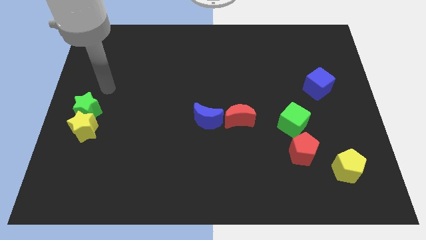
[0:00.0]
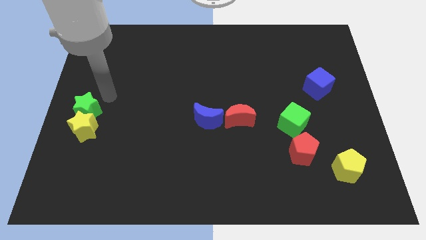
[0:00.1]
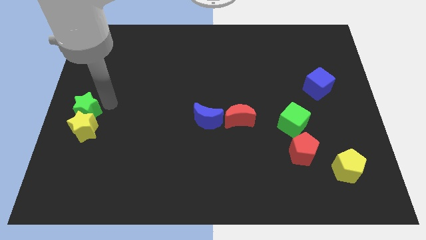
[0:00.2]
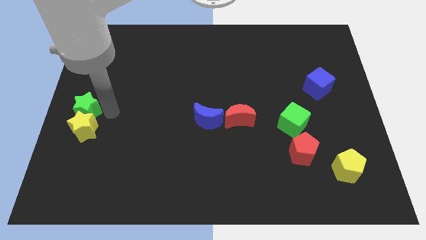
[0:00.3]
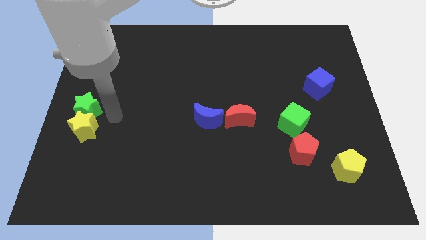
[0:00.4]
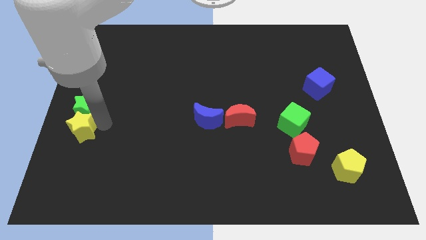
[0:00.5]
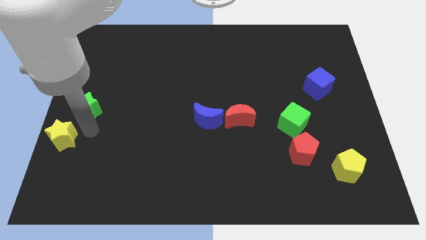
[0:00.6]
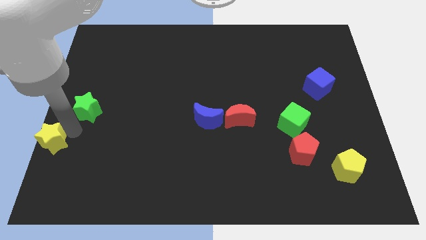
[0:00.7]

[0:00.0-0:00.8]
pull the green star apart from the yellow star

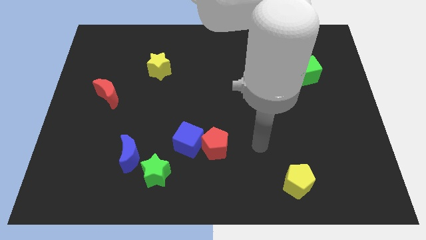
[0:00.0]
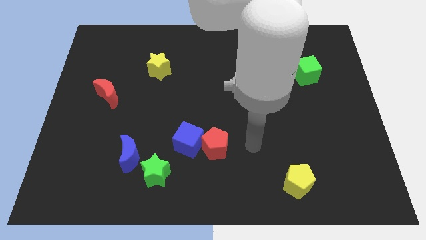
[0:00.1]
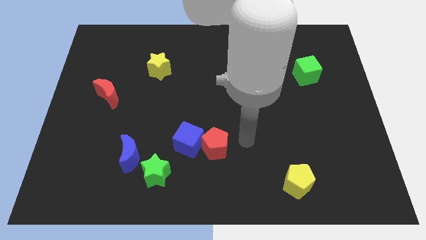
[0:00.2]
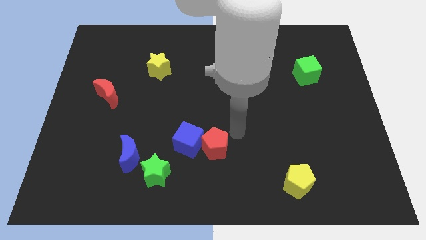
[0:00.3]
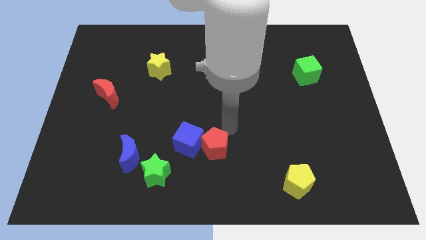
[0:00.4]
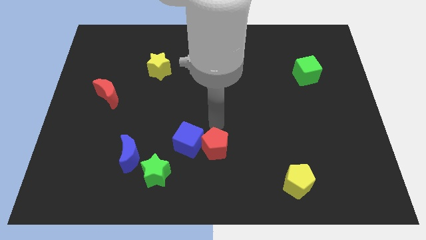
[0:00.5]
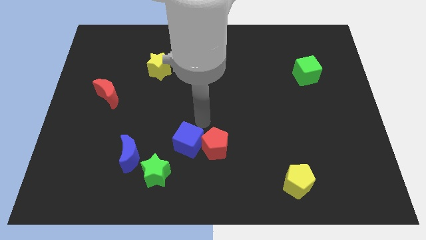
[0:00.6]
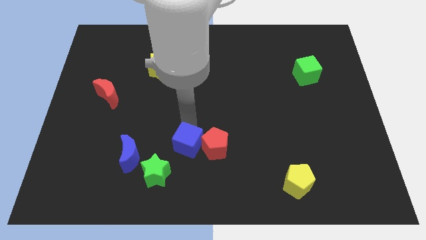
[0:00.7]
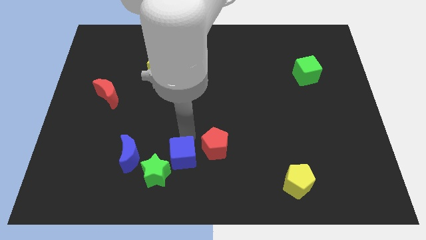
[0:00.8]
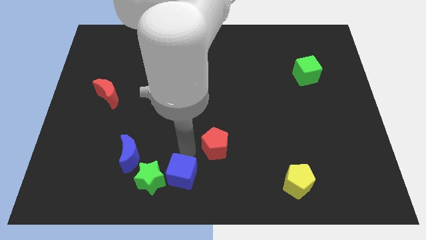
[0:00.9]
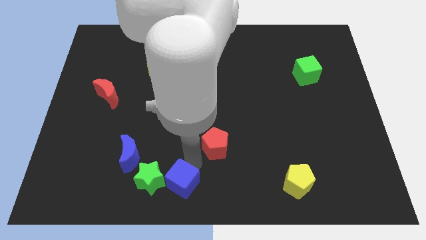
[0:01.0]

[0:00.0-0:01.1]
pull the red pentagon apart from the blue cube

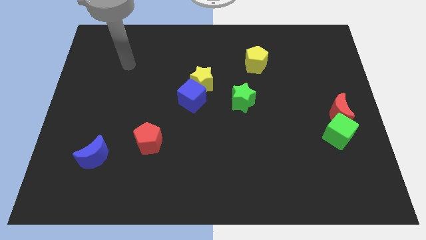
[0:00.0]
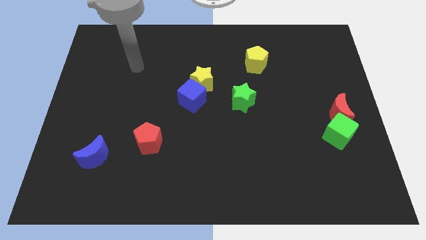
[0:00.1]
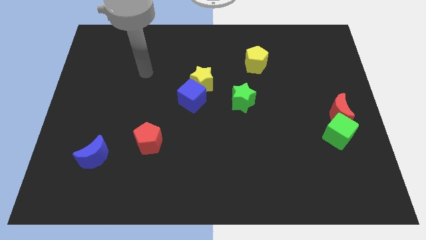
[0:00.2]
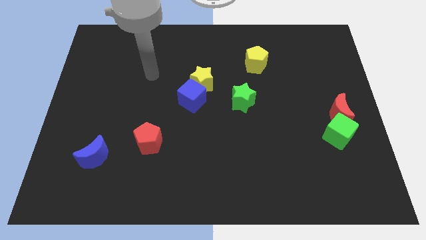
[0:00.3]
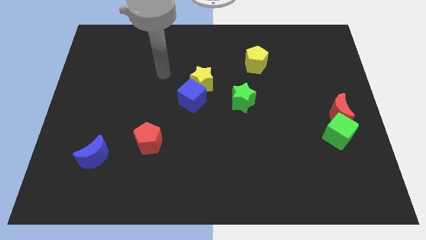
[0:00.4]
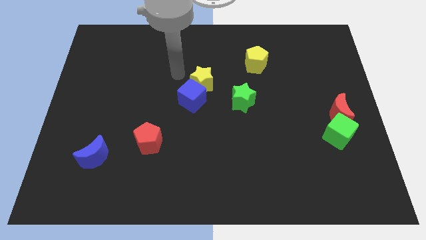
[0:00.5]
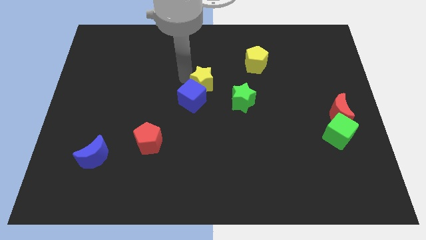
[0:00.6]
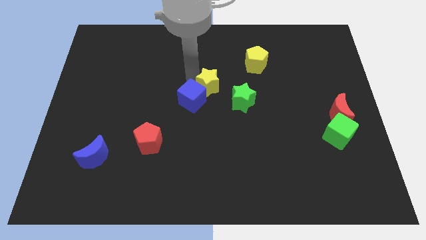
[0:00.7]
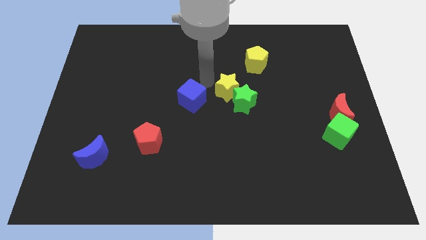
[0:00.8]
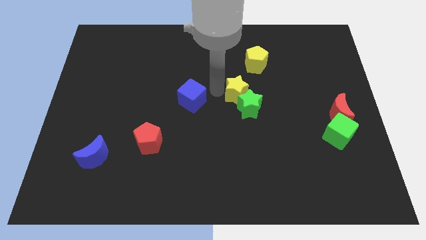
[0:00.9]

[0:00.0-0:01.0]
pull the blue cube apart from the yellow star

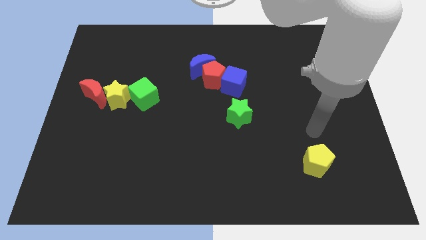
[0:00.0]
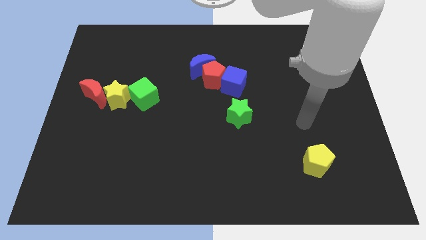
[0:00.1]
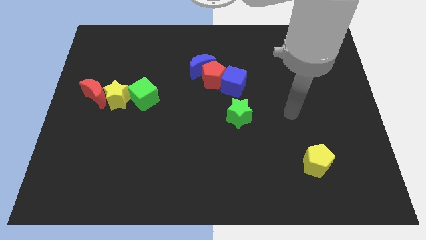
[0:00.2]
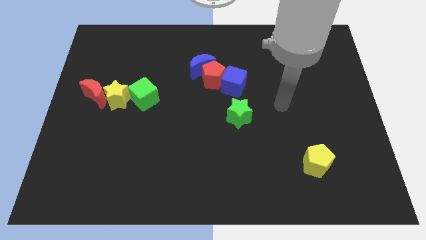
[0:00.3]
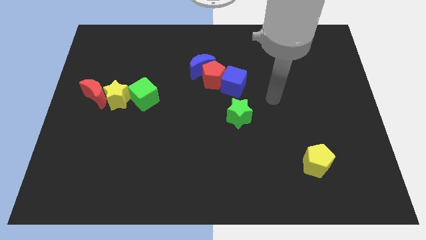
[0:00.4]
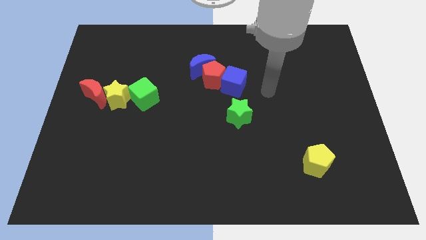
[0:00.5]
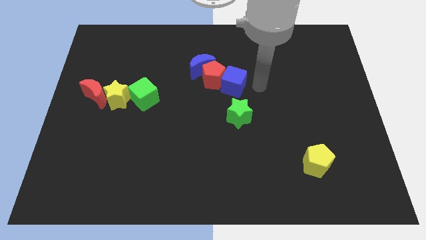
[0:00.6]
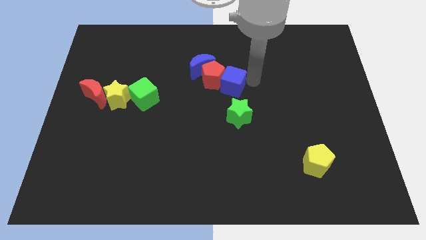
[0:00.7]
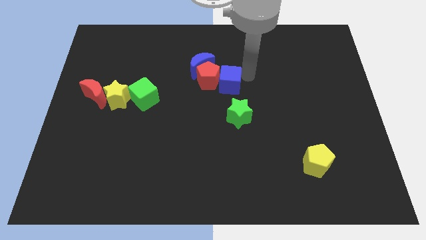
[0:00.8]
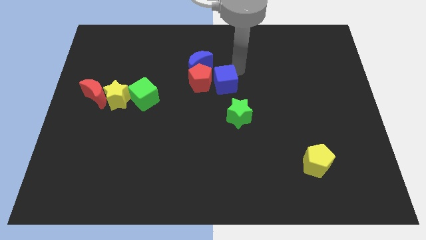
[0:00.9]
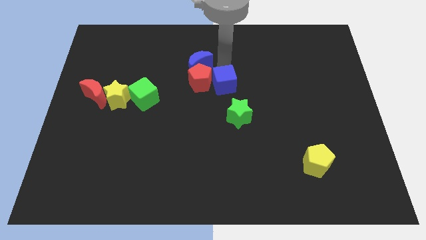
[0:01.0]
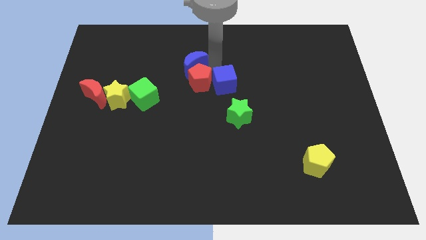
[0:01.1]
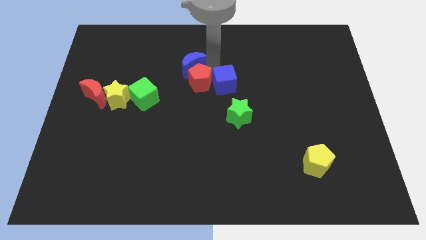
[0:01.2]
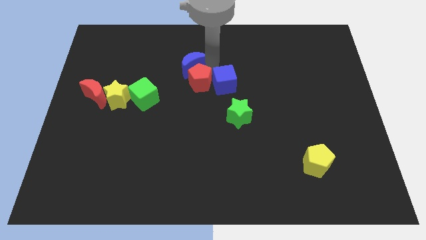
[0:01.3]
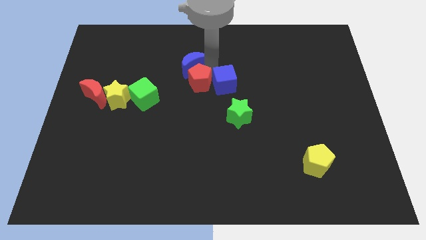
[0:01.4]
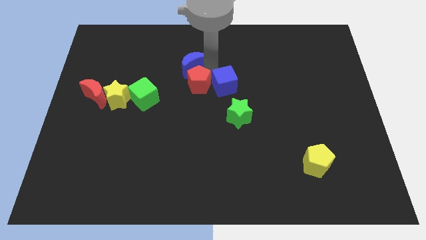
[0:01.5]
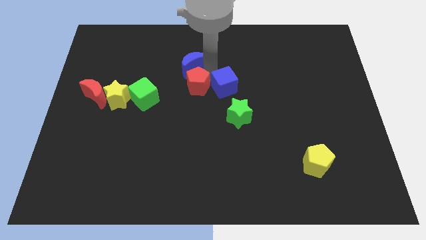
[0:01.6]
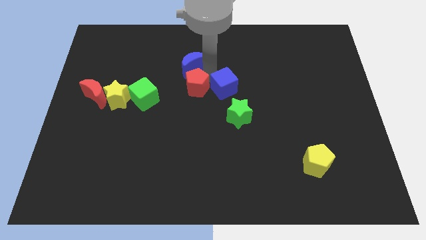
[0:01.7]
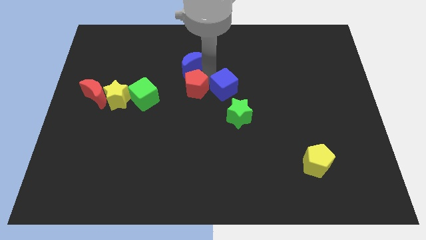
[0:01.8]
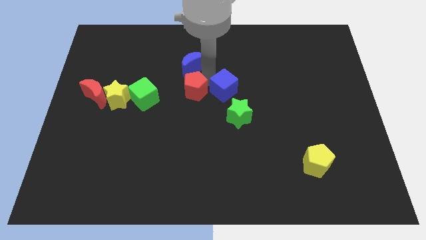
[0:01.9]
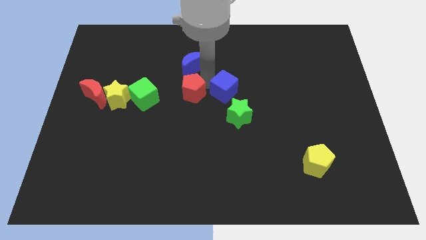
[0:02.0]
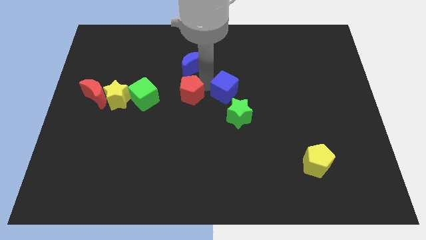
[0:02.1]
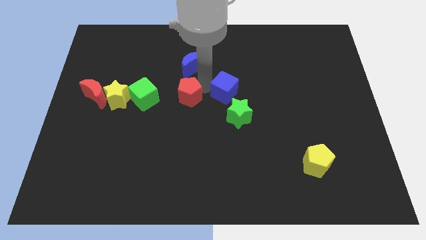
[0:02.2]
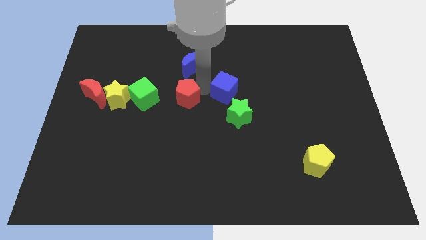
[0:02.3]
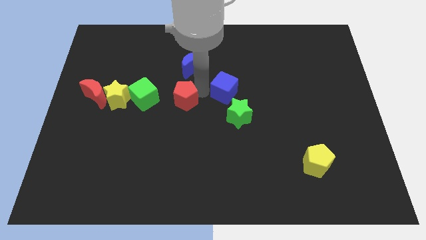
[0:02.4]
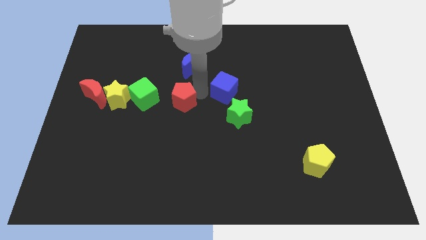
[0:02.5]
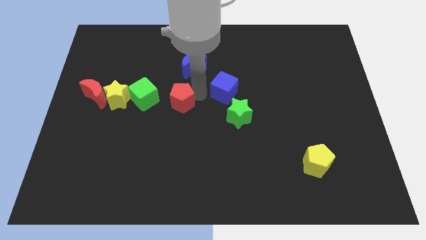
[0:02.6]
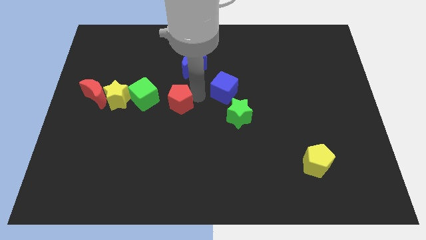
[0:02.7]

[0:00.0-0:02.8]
move the red pentagon away from the blue moon and blue cube

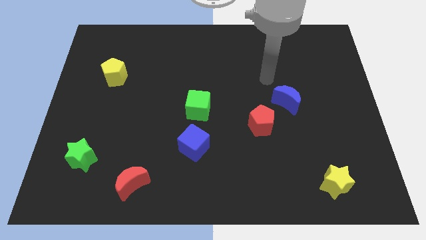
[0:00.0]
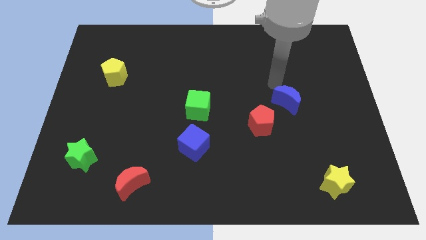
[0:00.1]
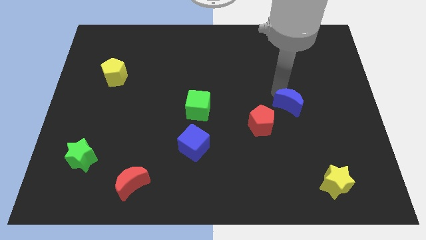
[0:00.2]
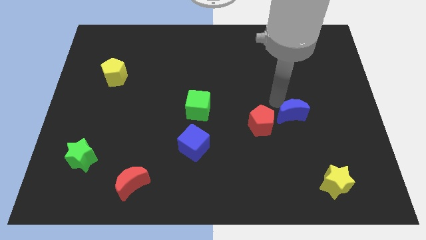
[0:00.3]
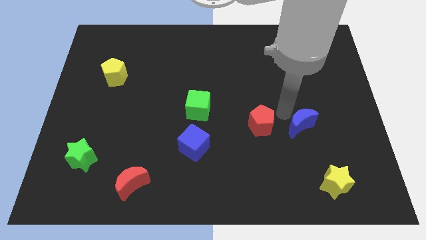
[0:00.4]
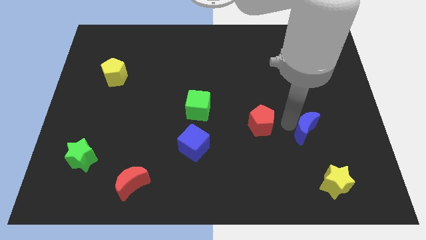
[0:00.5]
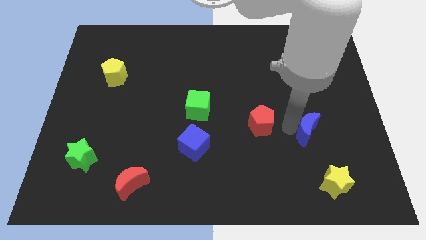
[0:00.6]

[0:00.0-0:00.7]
separate the red pentagon from the blue moon

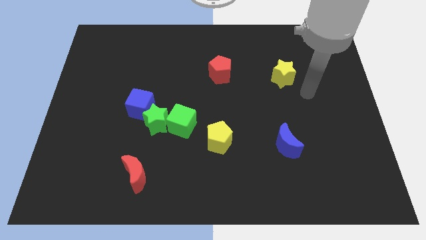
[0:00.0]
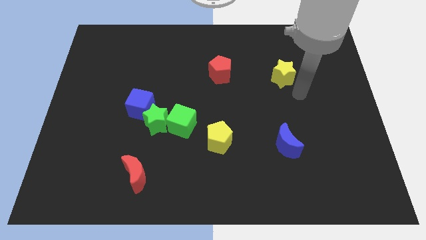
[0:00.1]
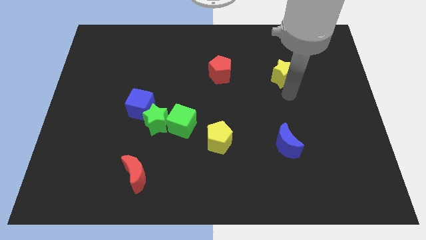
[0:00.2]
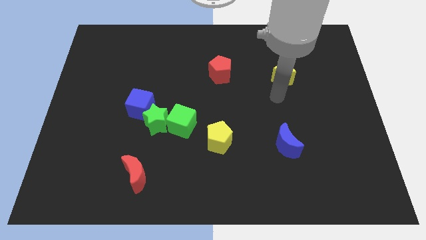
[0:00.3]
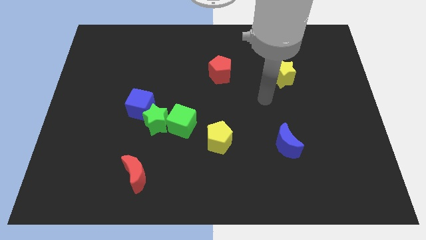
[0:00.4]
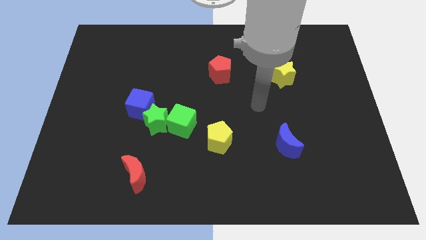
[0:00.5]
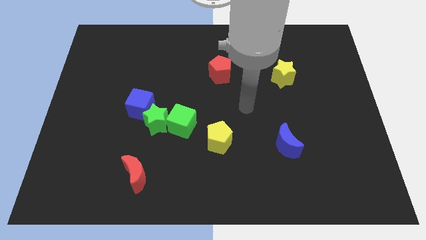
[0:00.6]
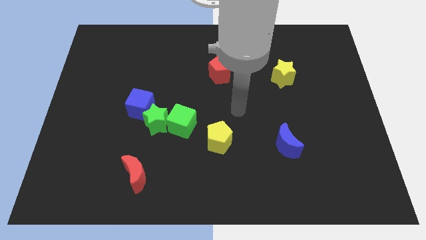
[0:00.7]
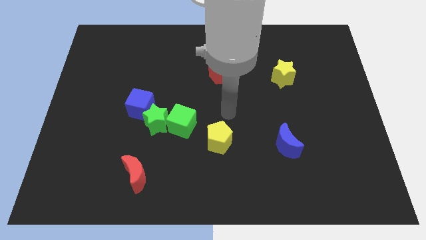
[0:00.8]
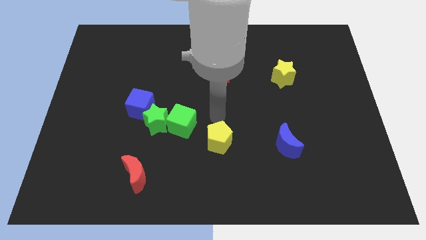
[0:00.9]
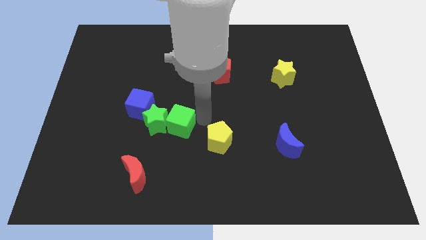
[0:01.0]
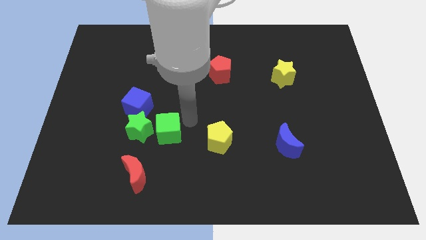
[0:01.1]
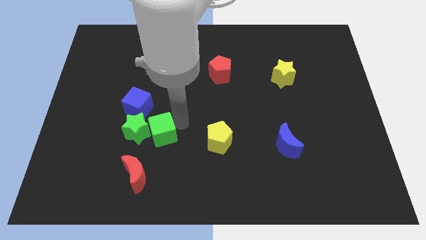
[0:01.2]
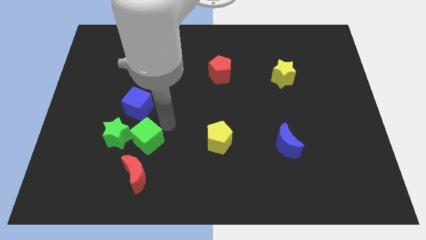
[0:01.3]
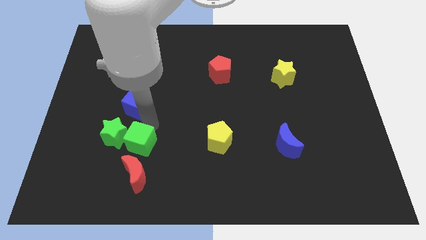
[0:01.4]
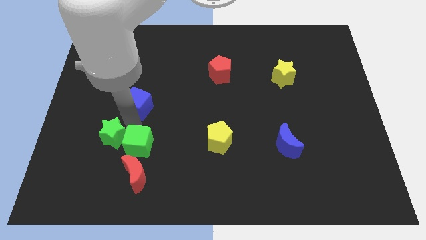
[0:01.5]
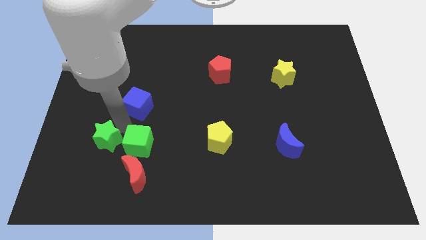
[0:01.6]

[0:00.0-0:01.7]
move the blue cube away from the green star

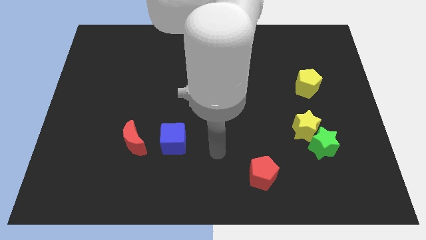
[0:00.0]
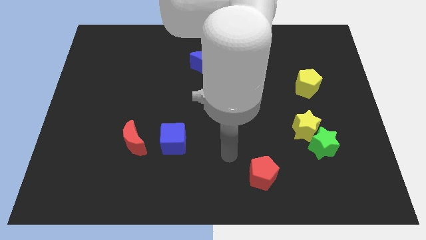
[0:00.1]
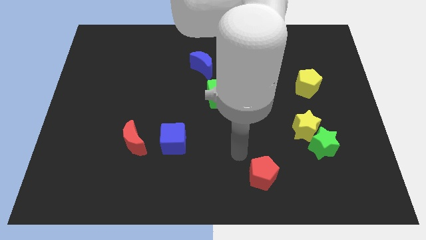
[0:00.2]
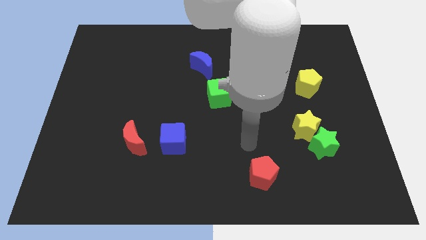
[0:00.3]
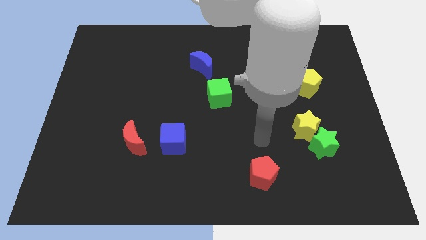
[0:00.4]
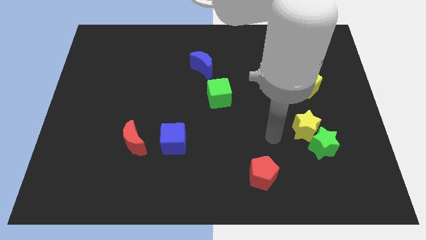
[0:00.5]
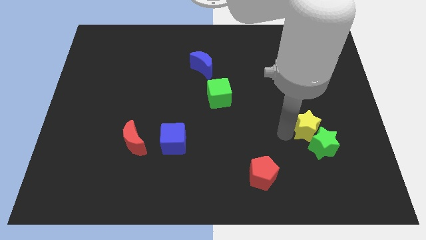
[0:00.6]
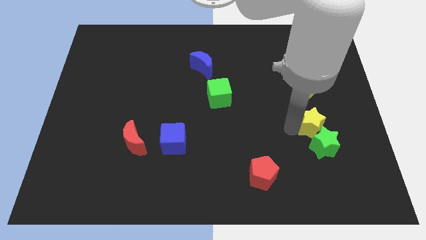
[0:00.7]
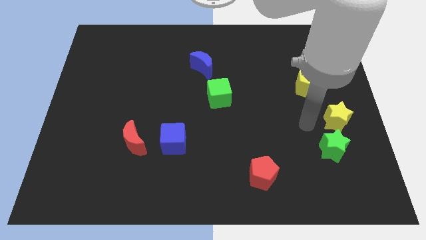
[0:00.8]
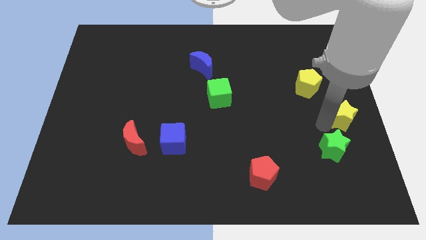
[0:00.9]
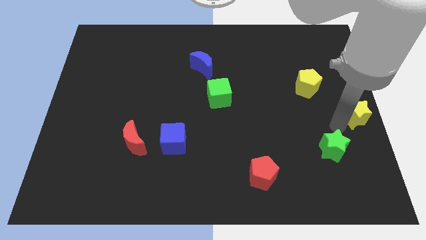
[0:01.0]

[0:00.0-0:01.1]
separate the green star from the yellow star

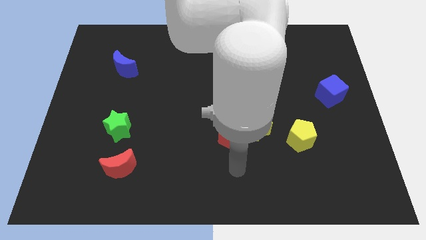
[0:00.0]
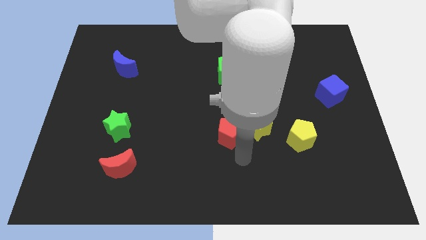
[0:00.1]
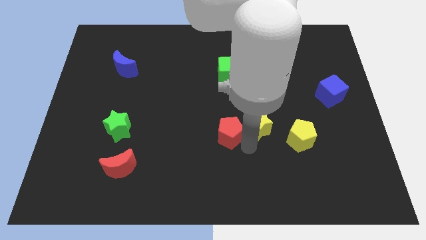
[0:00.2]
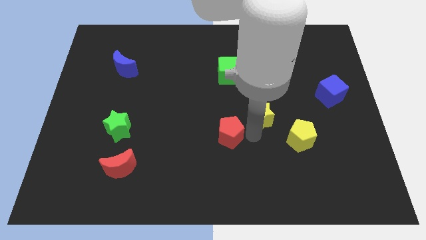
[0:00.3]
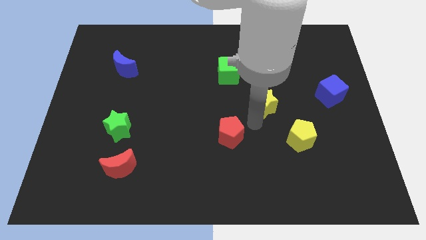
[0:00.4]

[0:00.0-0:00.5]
move the red pentagon away from the yellow star
